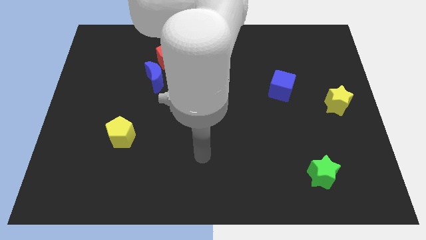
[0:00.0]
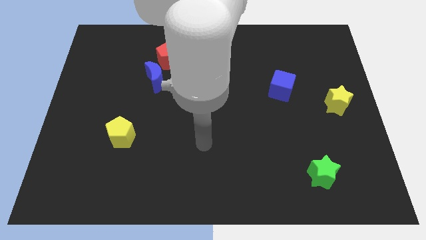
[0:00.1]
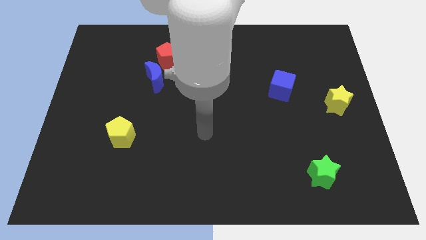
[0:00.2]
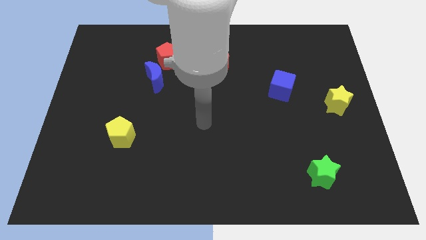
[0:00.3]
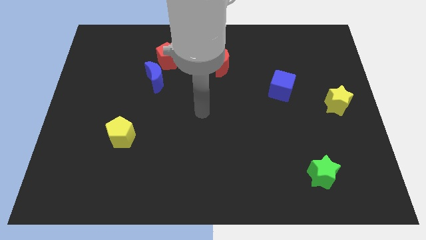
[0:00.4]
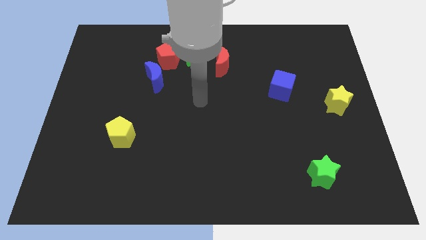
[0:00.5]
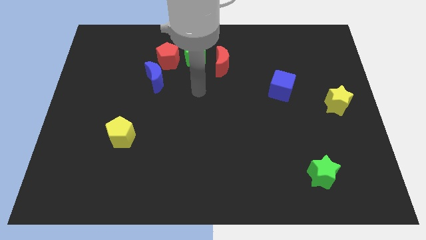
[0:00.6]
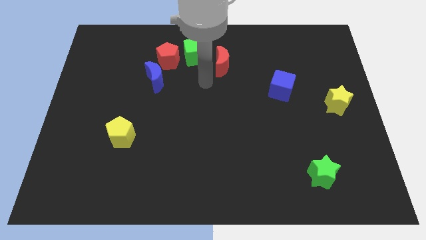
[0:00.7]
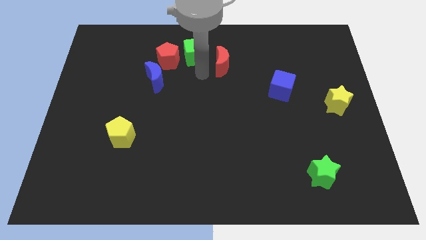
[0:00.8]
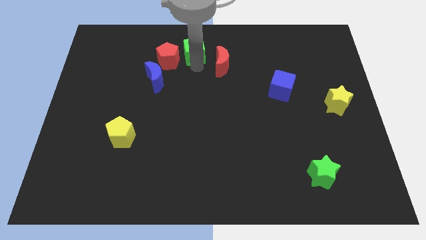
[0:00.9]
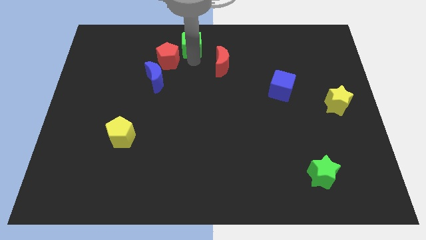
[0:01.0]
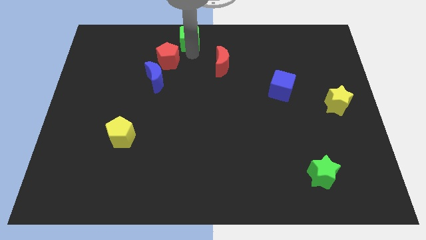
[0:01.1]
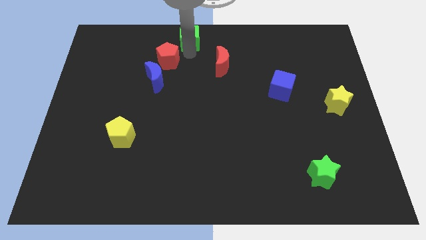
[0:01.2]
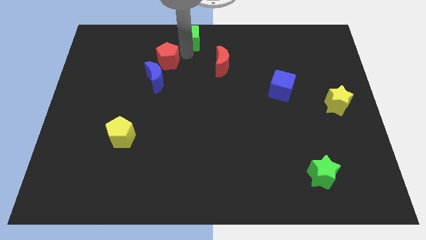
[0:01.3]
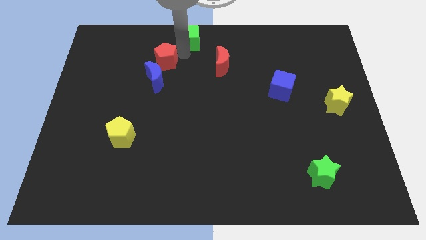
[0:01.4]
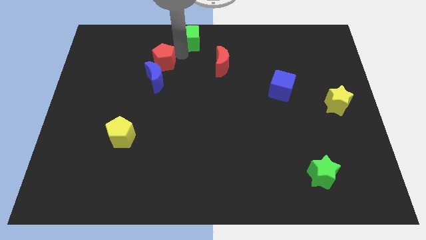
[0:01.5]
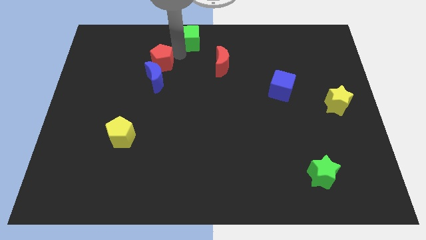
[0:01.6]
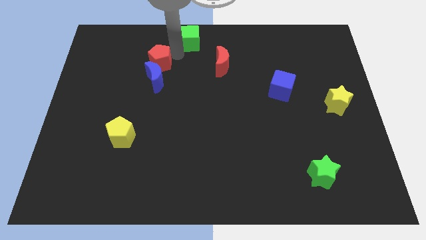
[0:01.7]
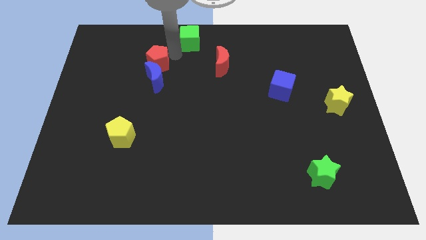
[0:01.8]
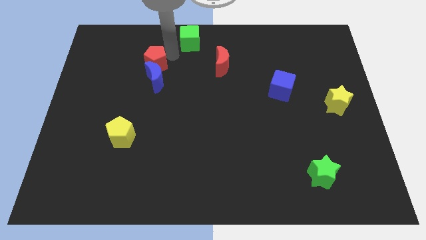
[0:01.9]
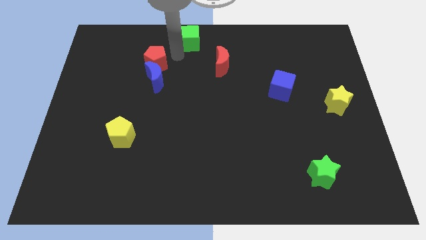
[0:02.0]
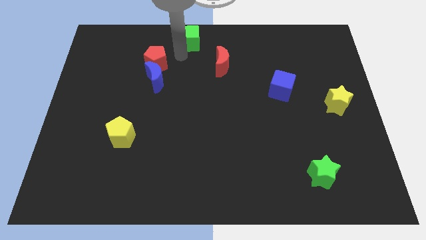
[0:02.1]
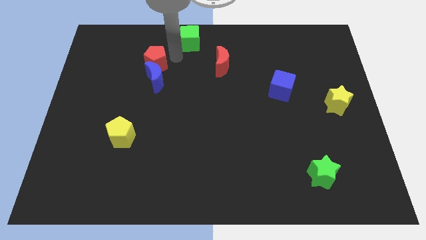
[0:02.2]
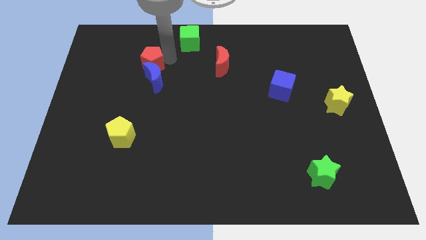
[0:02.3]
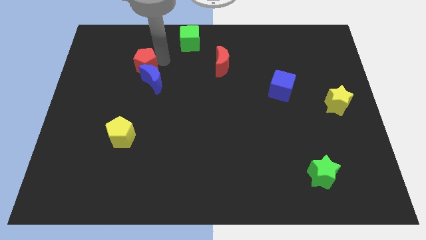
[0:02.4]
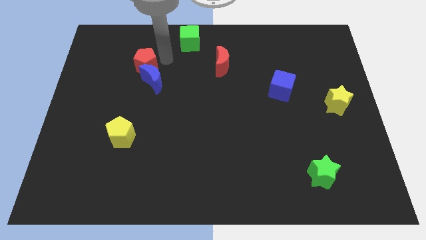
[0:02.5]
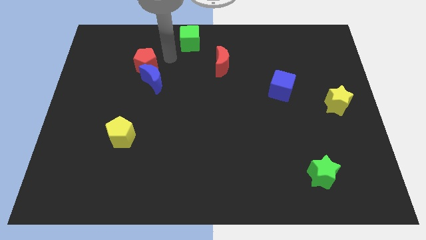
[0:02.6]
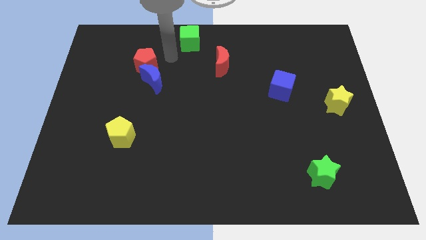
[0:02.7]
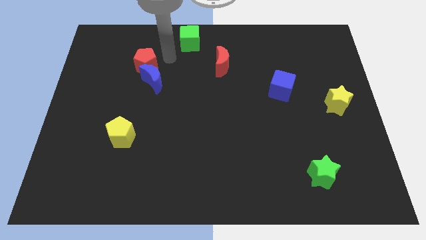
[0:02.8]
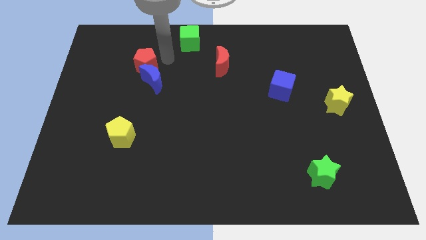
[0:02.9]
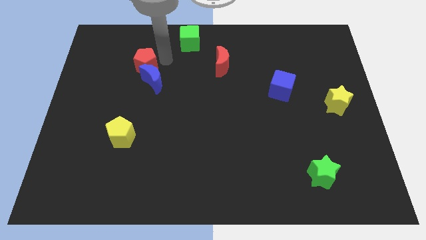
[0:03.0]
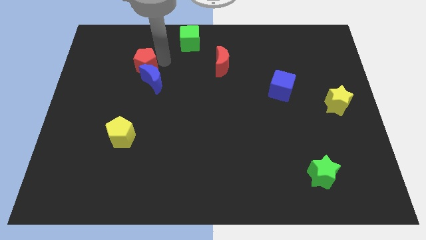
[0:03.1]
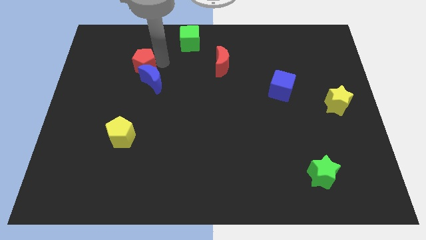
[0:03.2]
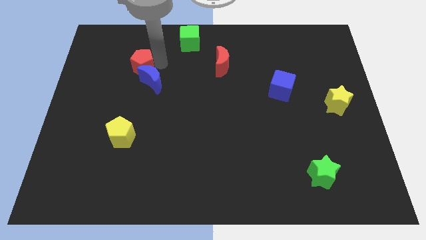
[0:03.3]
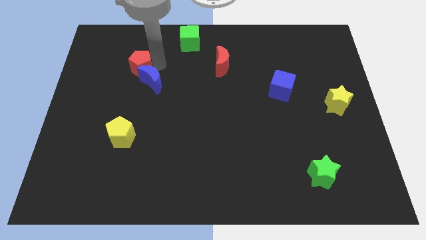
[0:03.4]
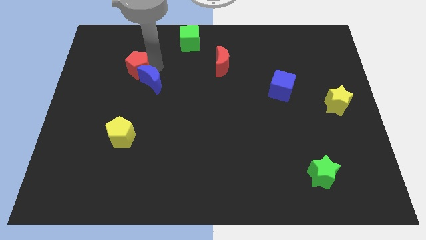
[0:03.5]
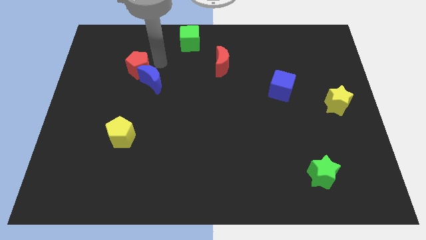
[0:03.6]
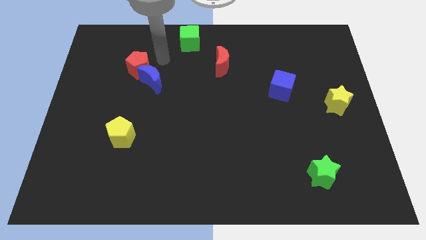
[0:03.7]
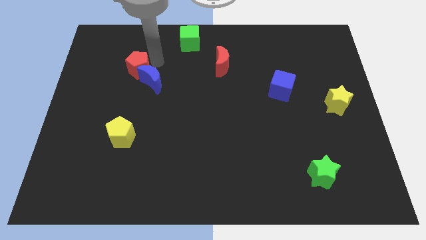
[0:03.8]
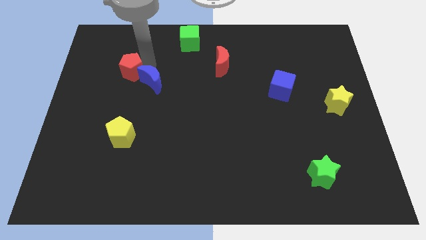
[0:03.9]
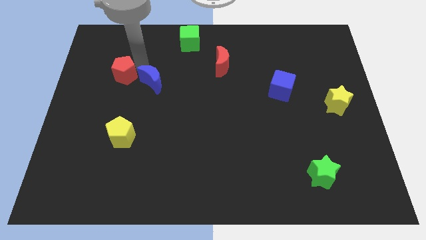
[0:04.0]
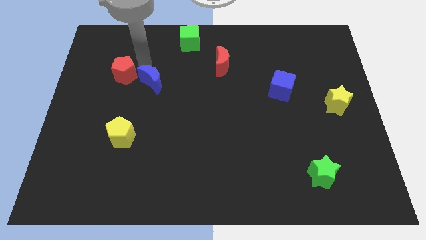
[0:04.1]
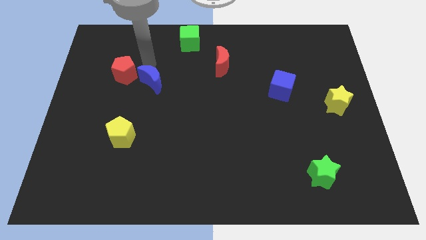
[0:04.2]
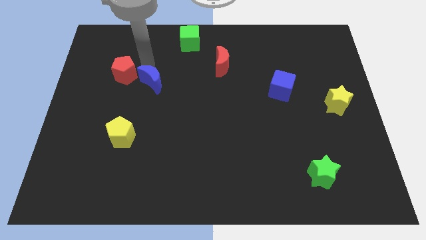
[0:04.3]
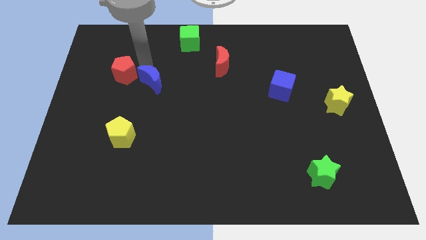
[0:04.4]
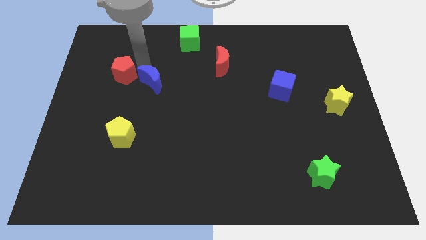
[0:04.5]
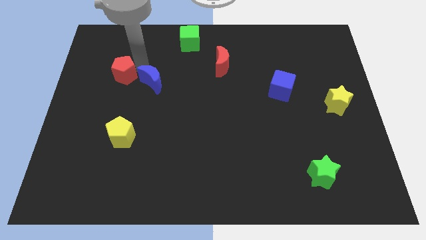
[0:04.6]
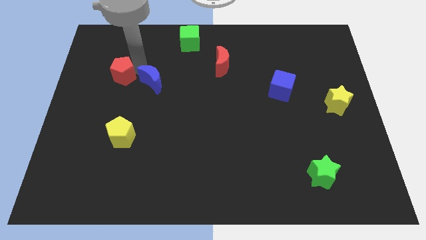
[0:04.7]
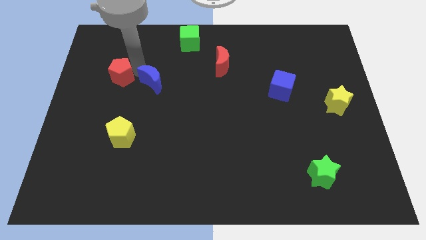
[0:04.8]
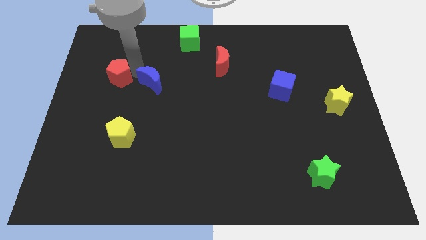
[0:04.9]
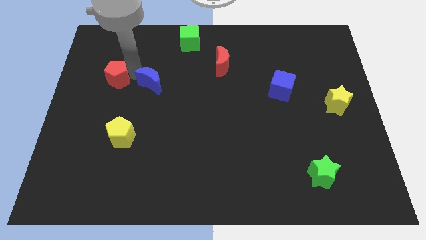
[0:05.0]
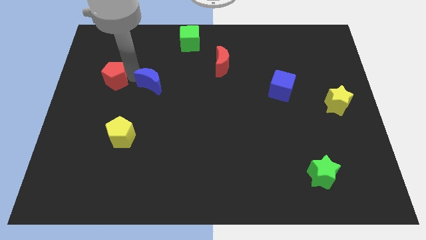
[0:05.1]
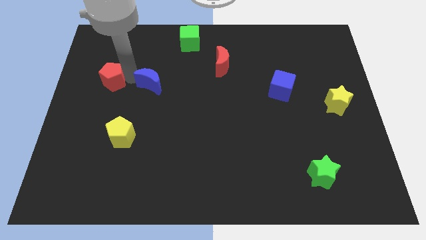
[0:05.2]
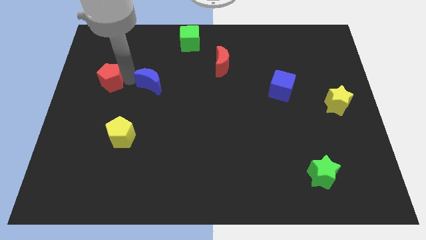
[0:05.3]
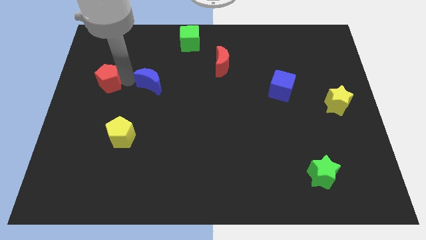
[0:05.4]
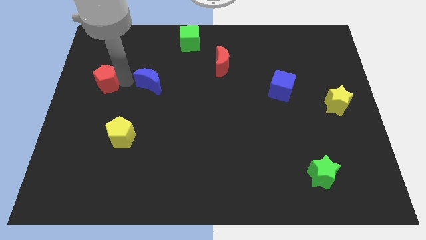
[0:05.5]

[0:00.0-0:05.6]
move the red pentagon to the left side of the board
